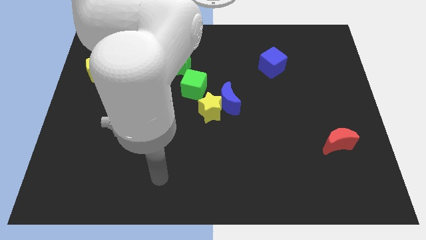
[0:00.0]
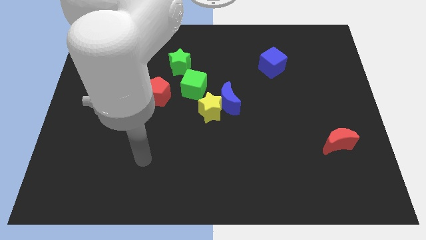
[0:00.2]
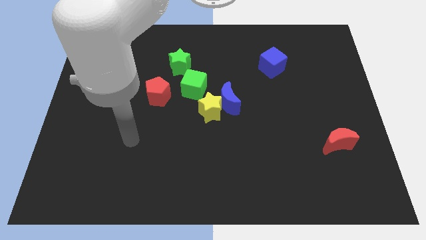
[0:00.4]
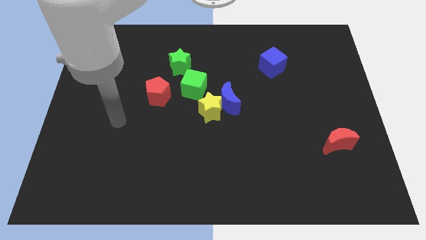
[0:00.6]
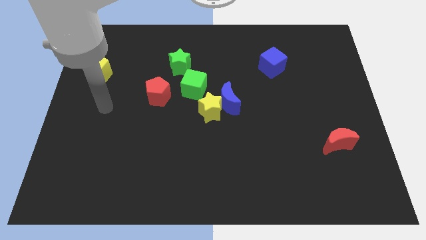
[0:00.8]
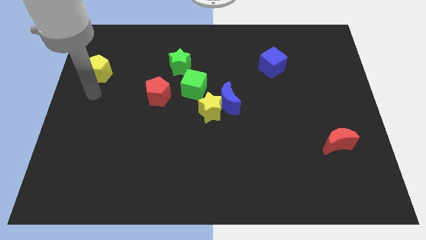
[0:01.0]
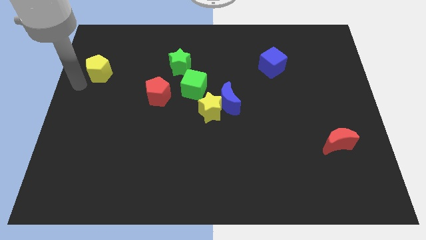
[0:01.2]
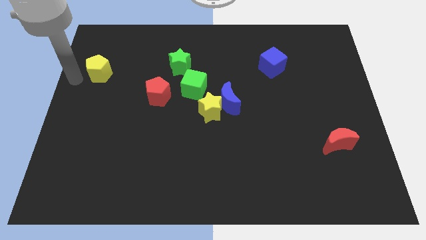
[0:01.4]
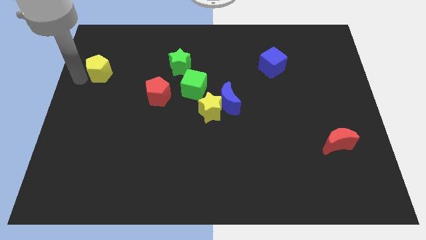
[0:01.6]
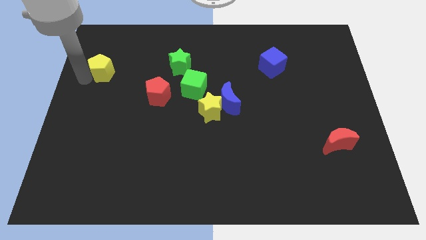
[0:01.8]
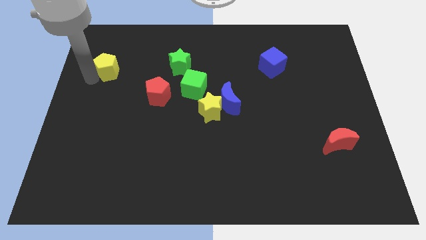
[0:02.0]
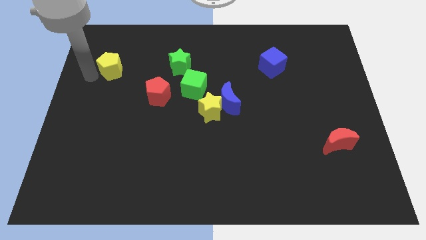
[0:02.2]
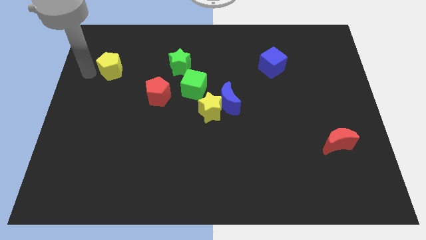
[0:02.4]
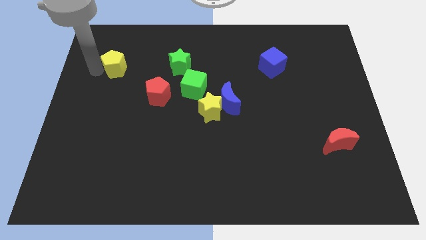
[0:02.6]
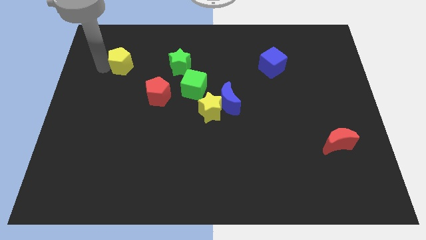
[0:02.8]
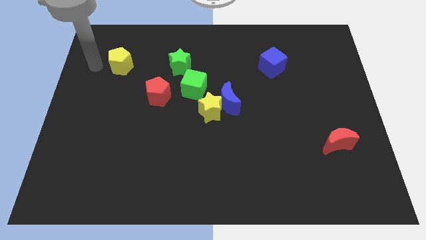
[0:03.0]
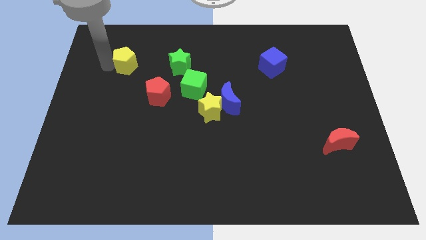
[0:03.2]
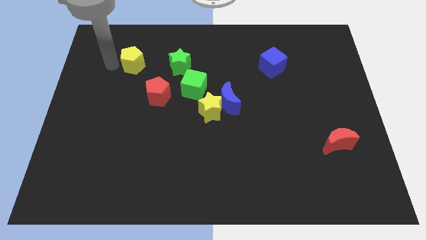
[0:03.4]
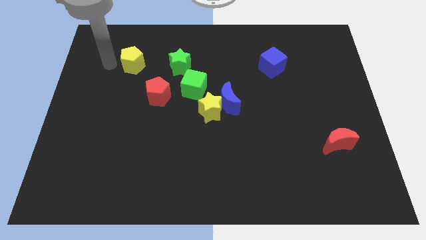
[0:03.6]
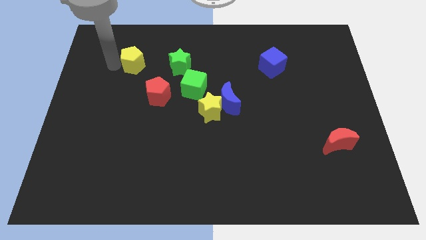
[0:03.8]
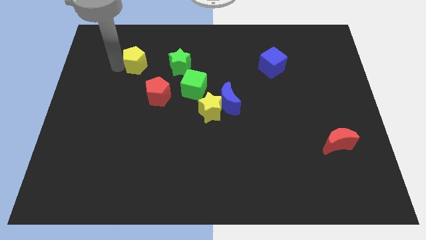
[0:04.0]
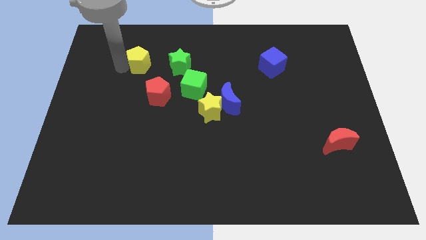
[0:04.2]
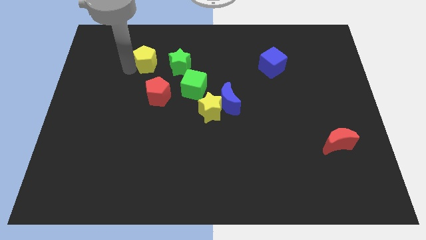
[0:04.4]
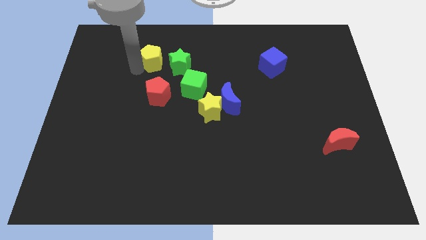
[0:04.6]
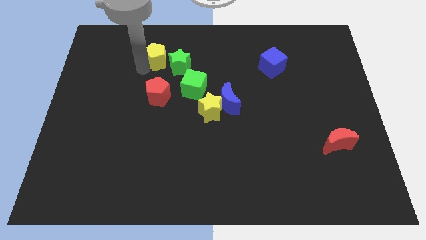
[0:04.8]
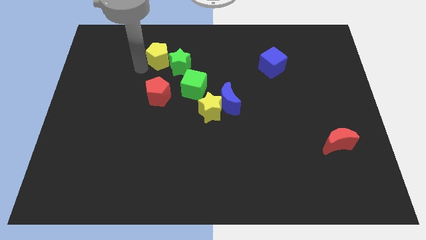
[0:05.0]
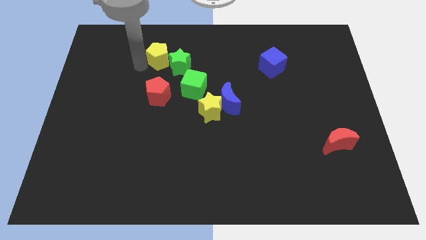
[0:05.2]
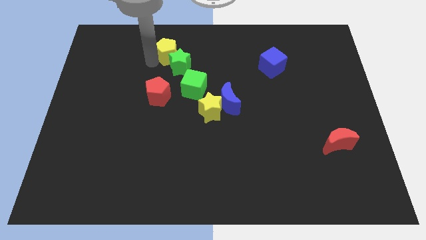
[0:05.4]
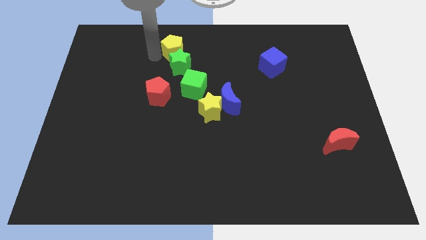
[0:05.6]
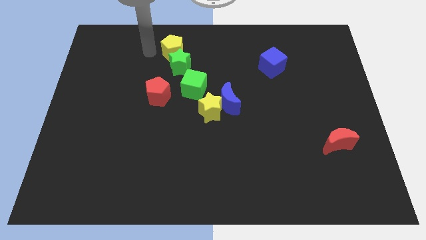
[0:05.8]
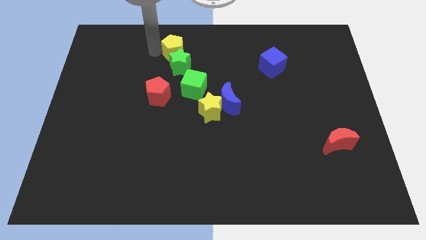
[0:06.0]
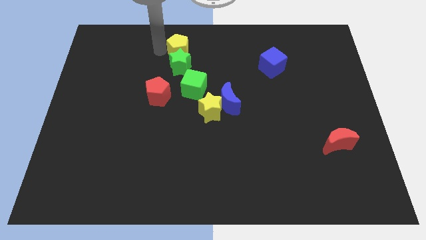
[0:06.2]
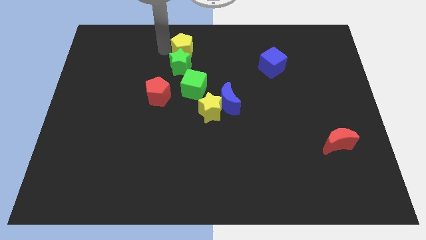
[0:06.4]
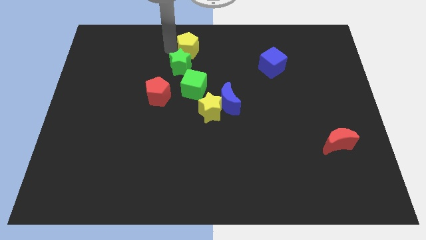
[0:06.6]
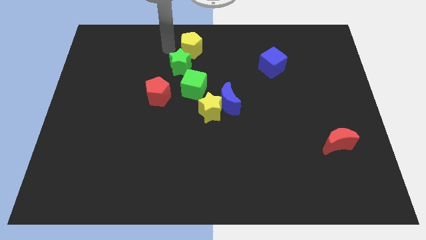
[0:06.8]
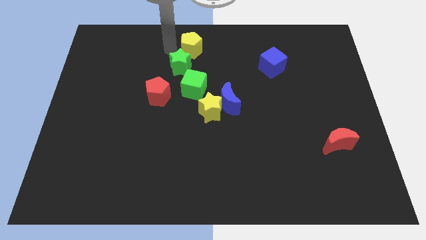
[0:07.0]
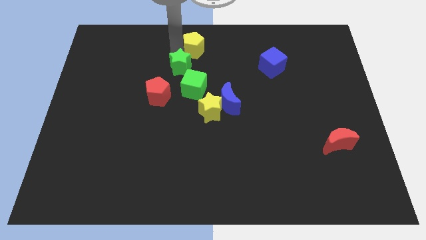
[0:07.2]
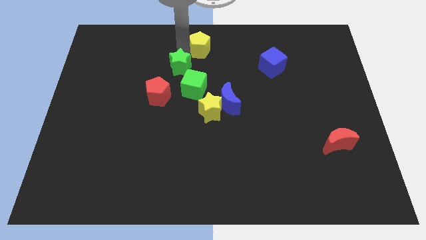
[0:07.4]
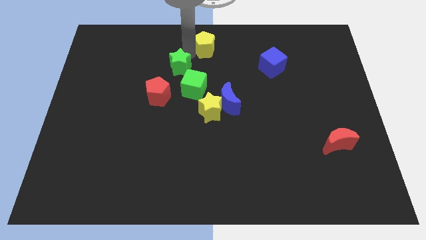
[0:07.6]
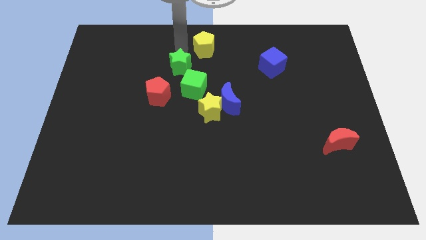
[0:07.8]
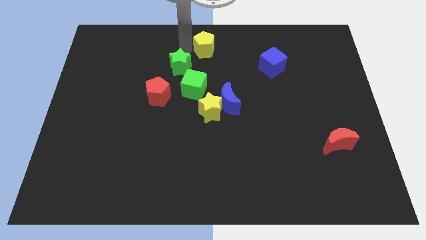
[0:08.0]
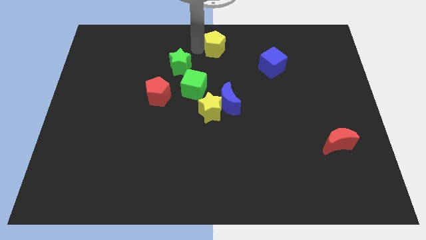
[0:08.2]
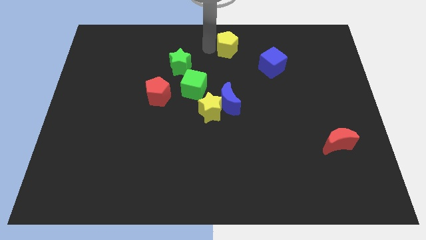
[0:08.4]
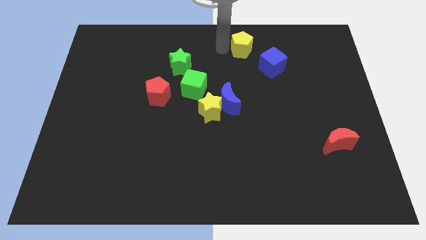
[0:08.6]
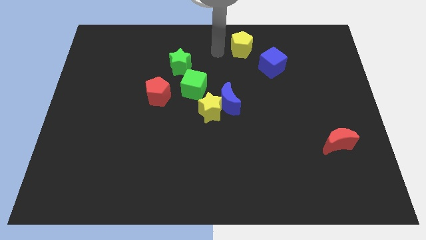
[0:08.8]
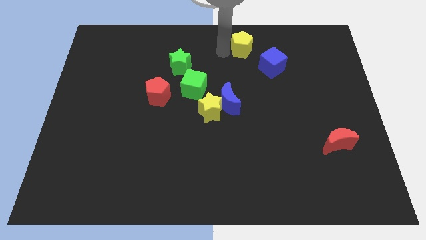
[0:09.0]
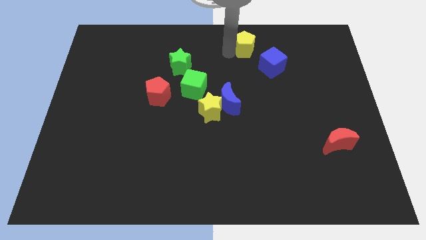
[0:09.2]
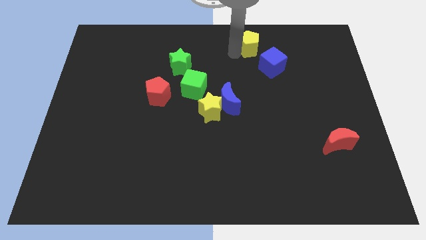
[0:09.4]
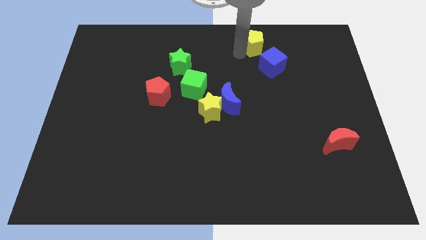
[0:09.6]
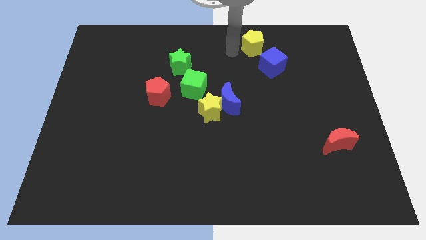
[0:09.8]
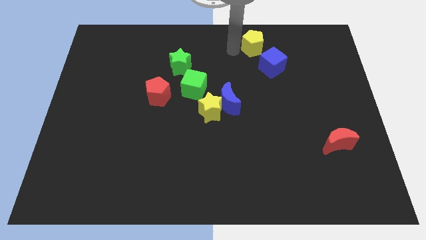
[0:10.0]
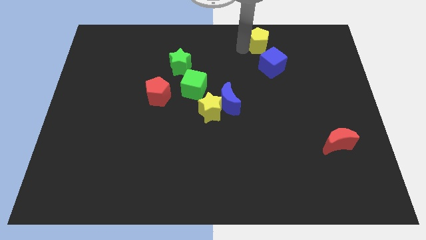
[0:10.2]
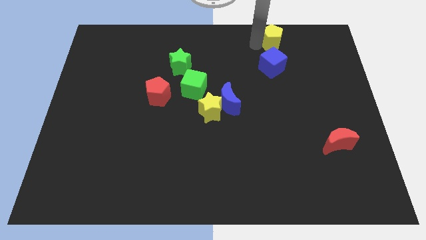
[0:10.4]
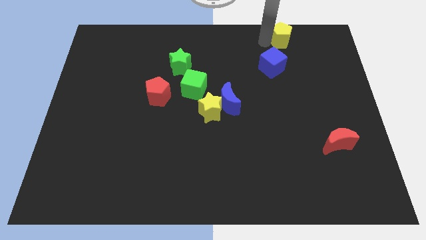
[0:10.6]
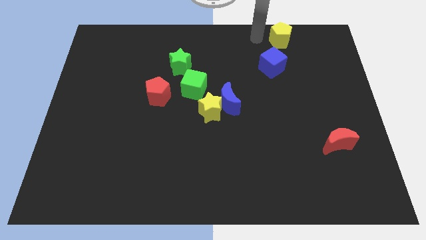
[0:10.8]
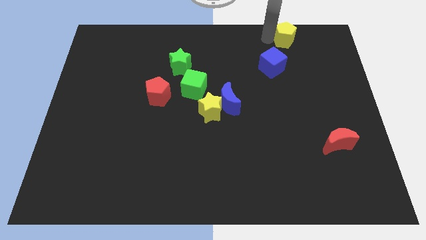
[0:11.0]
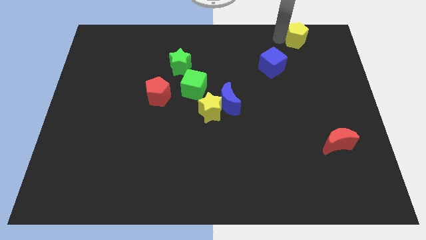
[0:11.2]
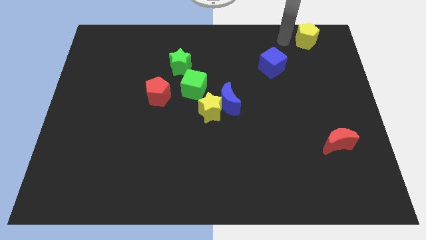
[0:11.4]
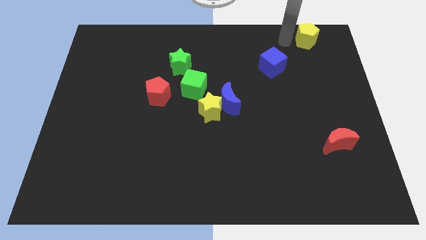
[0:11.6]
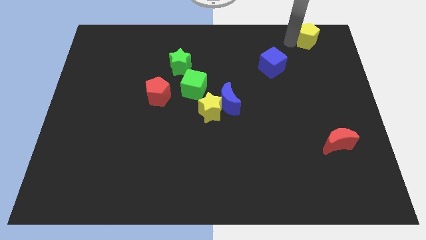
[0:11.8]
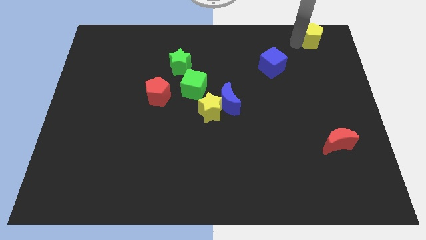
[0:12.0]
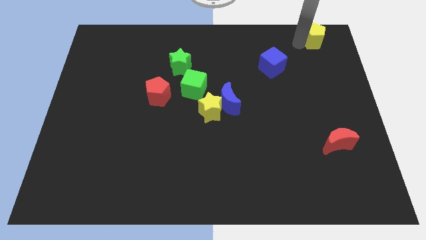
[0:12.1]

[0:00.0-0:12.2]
slide the yellow pentagon to the top right corner

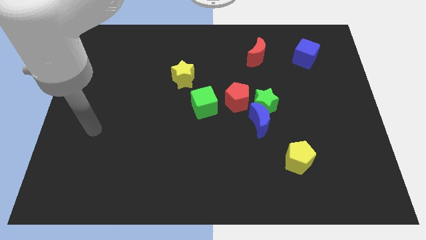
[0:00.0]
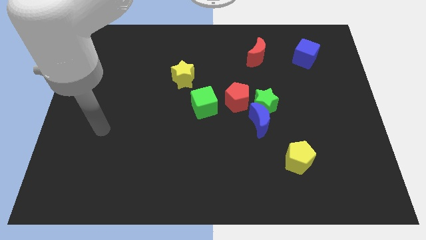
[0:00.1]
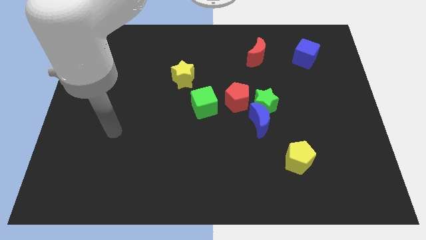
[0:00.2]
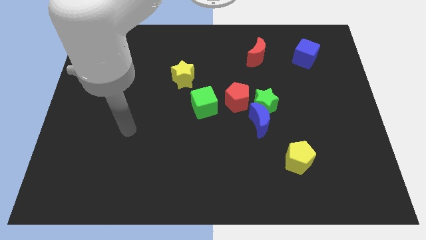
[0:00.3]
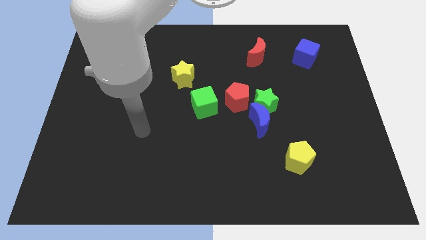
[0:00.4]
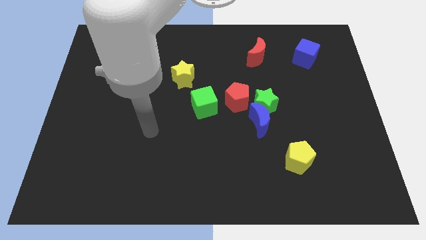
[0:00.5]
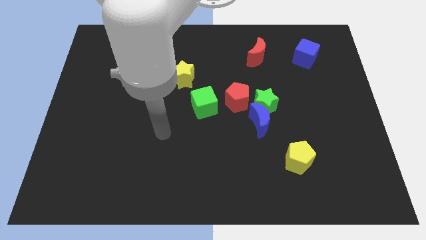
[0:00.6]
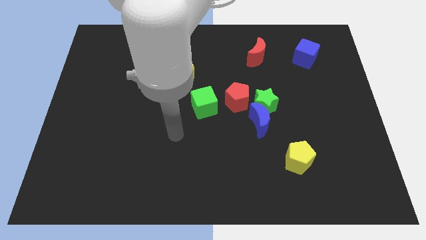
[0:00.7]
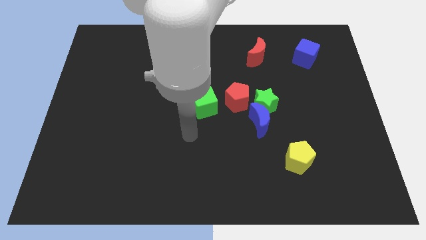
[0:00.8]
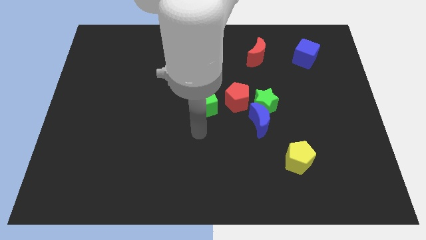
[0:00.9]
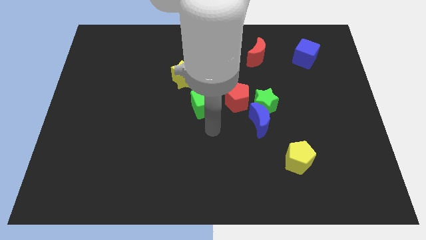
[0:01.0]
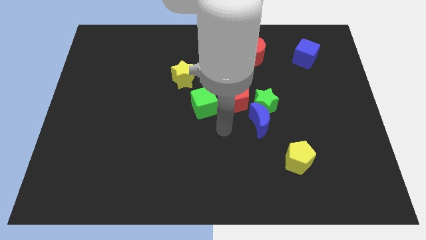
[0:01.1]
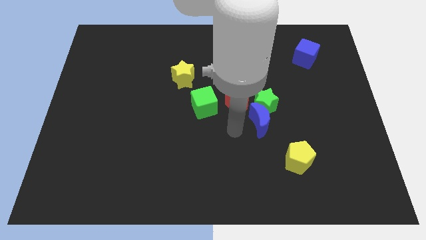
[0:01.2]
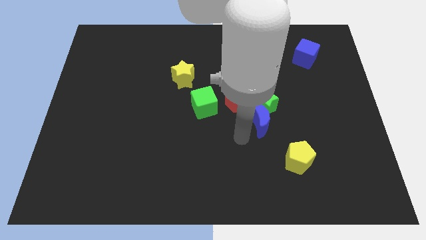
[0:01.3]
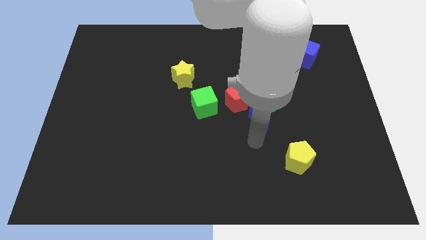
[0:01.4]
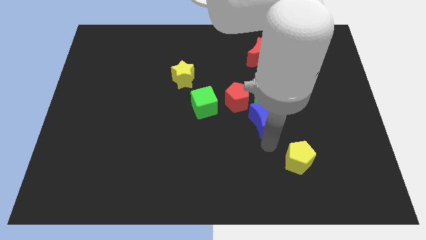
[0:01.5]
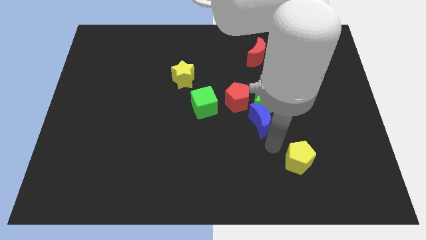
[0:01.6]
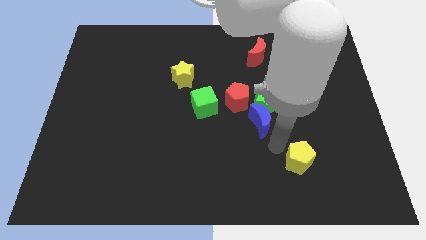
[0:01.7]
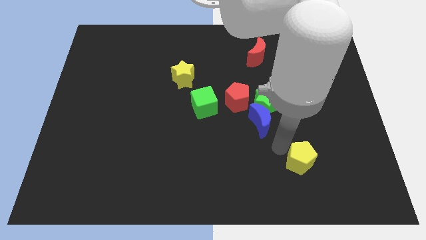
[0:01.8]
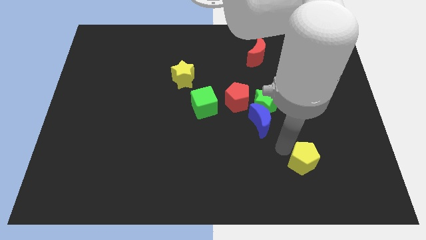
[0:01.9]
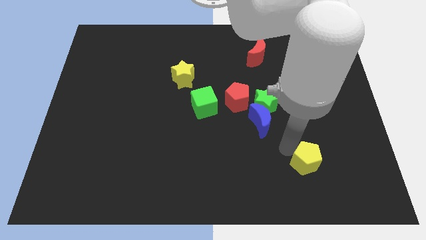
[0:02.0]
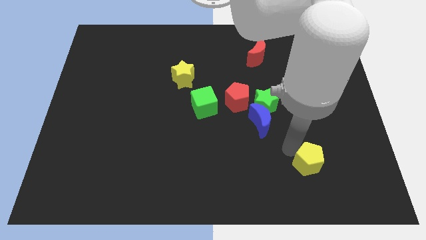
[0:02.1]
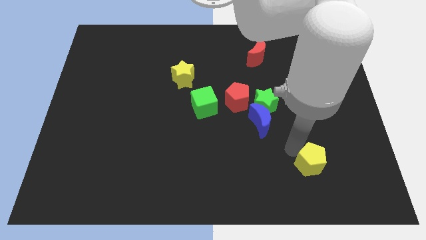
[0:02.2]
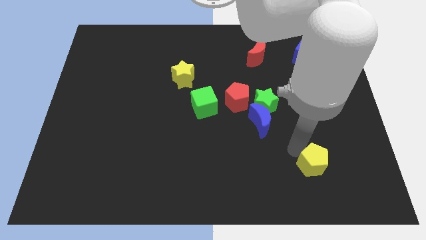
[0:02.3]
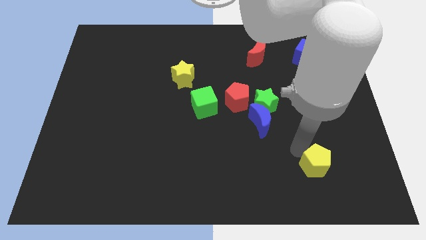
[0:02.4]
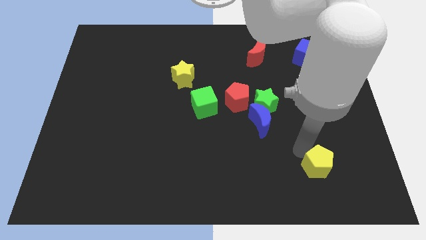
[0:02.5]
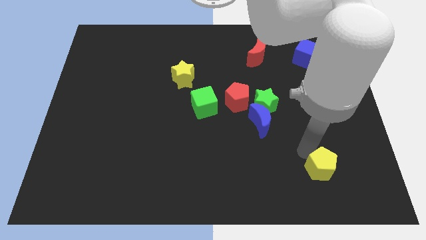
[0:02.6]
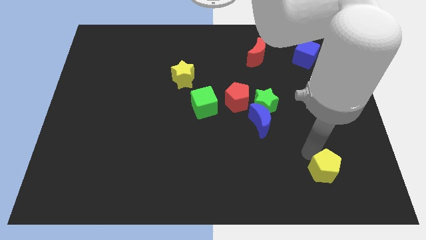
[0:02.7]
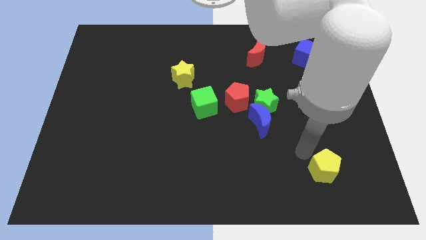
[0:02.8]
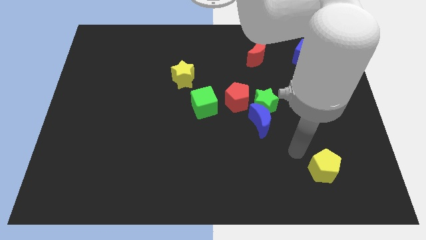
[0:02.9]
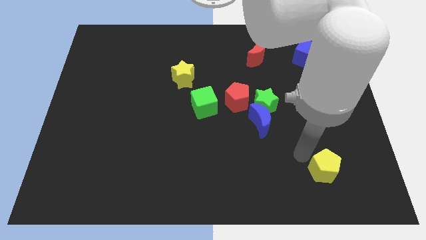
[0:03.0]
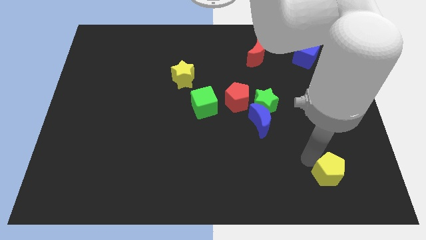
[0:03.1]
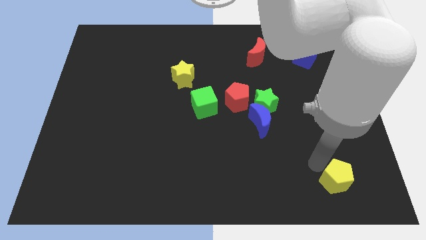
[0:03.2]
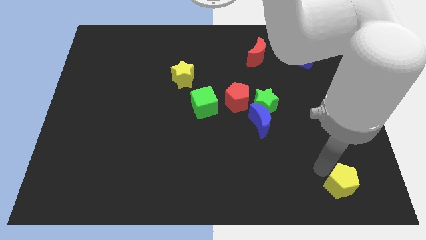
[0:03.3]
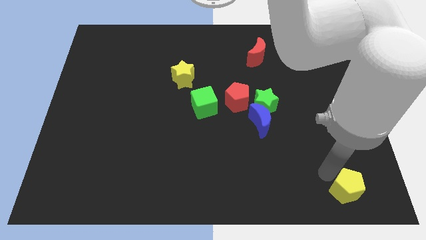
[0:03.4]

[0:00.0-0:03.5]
slide the yellow pentagon to the lower right corner
